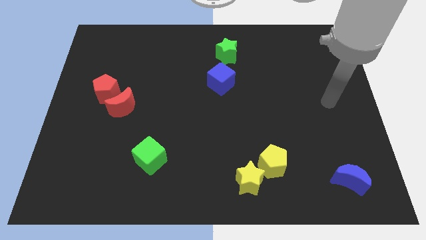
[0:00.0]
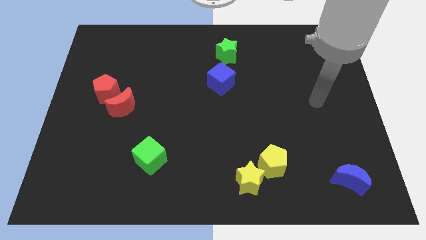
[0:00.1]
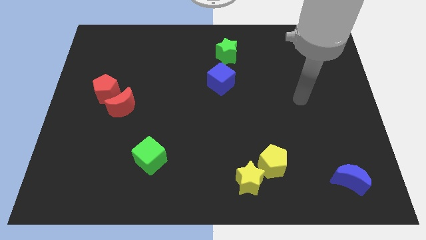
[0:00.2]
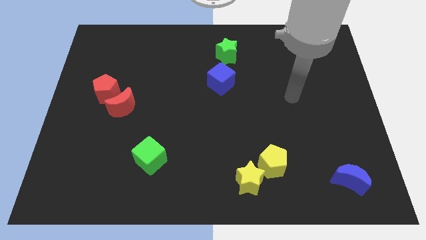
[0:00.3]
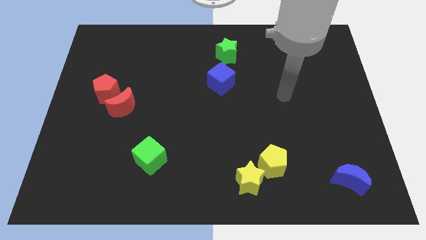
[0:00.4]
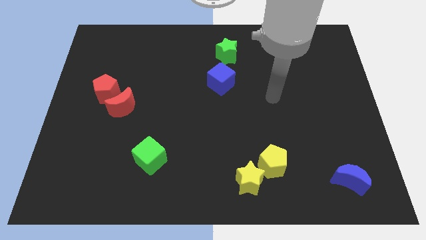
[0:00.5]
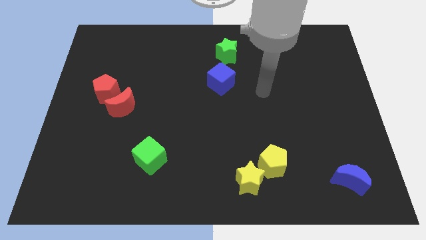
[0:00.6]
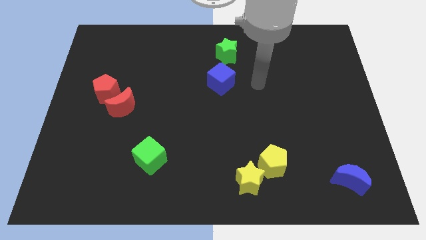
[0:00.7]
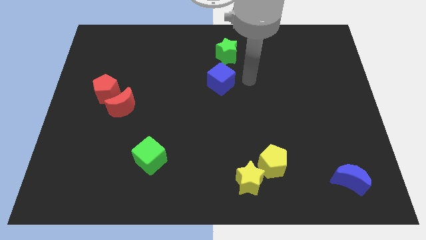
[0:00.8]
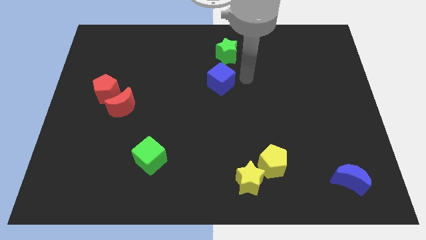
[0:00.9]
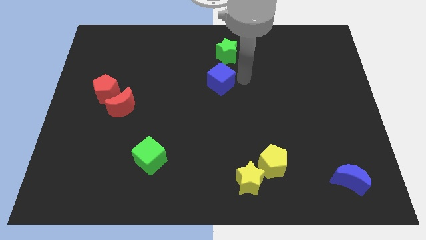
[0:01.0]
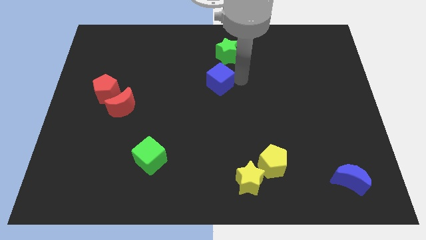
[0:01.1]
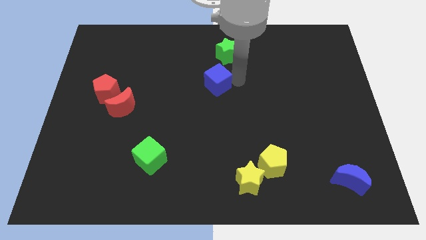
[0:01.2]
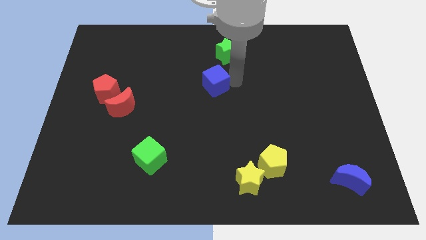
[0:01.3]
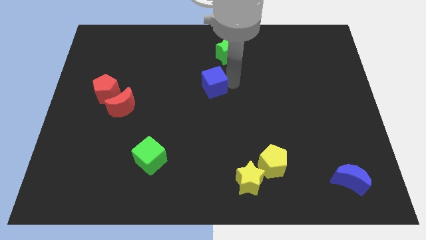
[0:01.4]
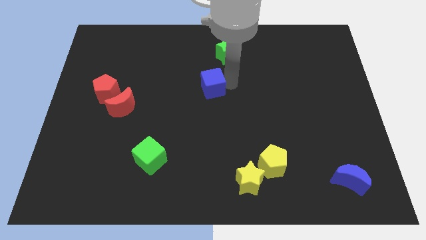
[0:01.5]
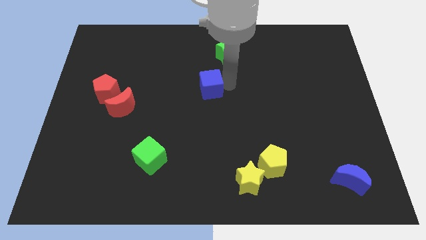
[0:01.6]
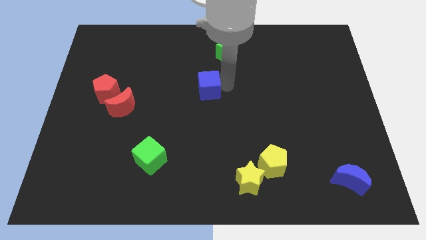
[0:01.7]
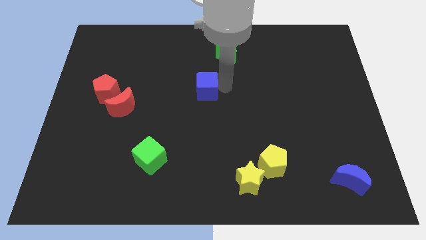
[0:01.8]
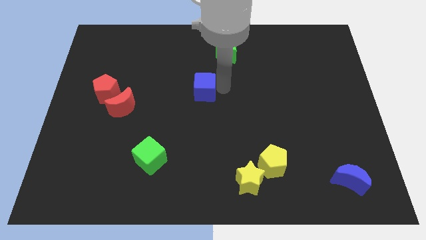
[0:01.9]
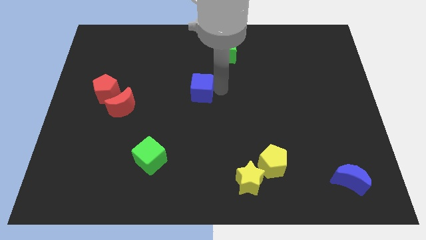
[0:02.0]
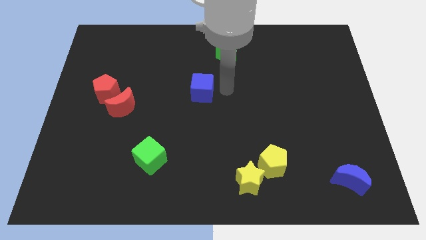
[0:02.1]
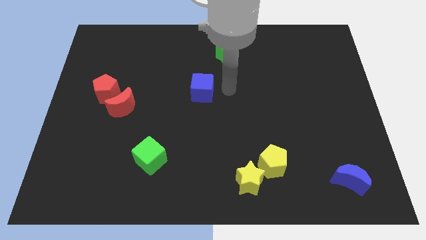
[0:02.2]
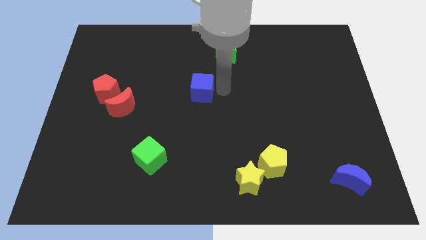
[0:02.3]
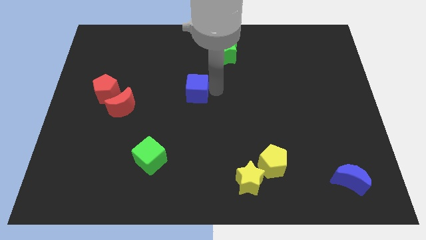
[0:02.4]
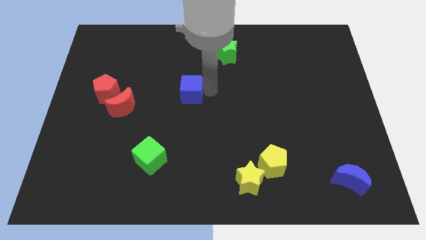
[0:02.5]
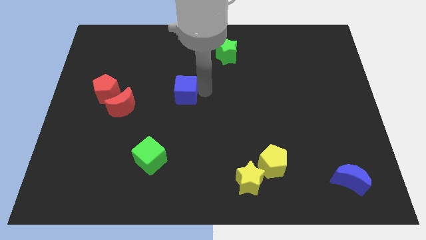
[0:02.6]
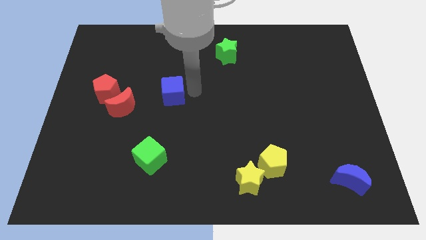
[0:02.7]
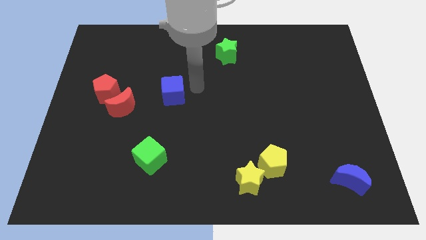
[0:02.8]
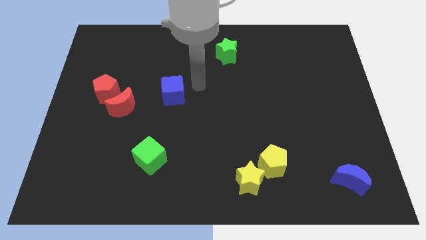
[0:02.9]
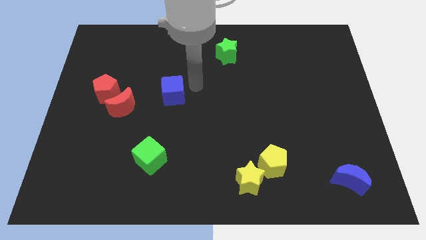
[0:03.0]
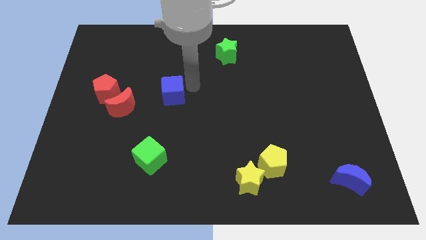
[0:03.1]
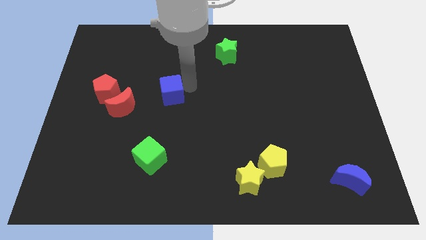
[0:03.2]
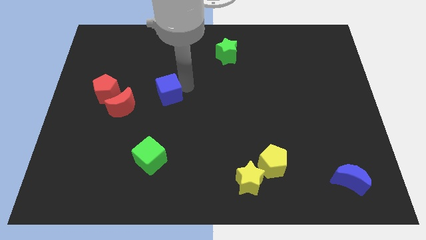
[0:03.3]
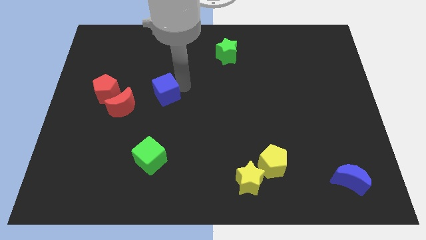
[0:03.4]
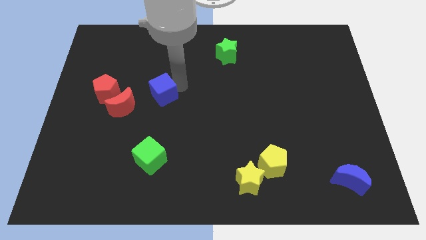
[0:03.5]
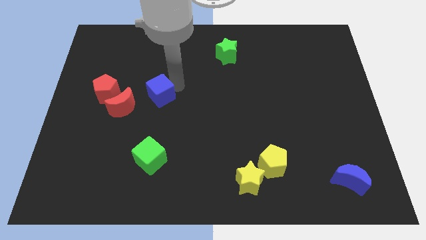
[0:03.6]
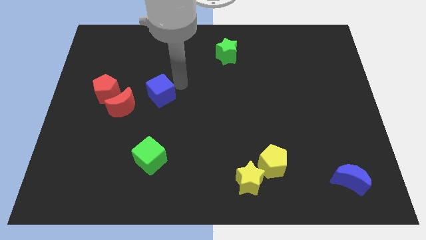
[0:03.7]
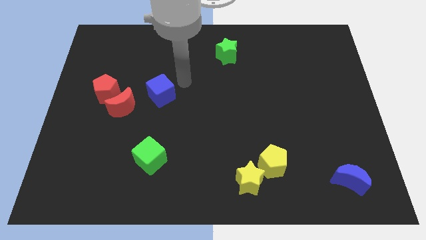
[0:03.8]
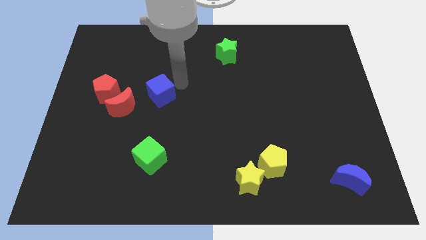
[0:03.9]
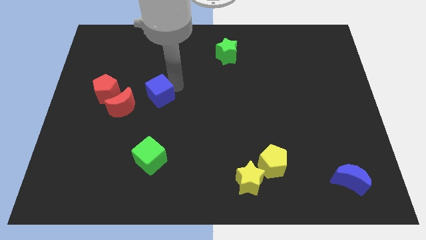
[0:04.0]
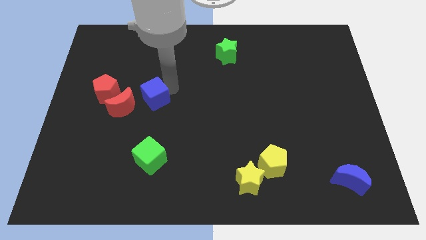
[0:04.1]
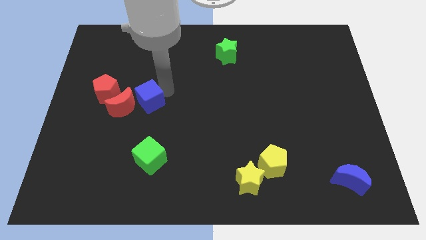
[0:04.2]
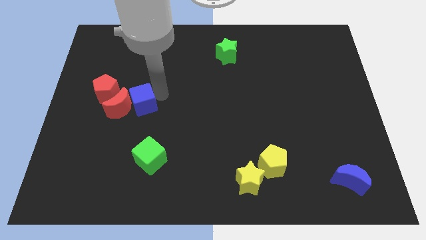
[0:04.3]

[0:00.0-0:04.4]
move the blue cube towards the red moon

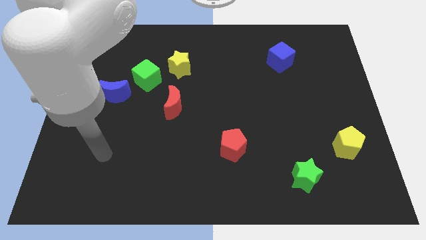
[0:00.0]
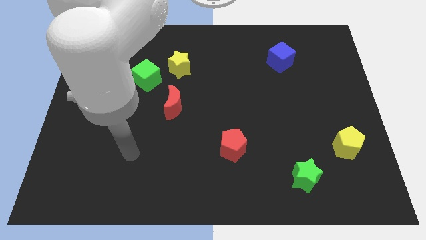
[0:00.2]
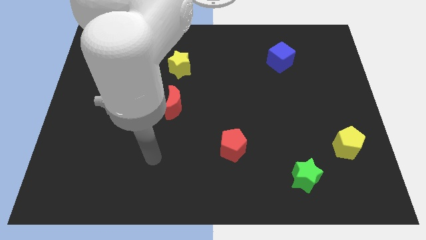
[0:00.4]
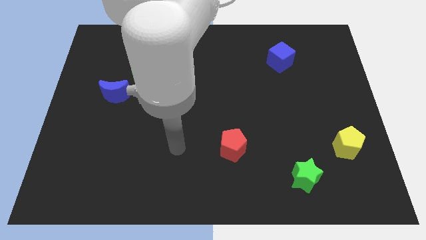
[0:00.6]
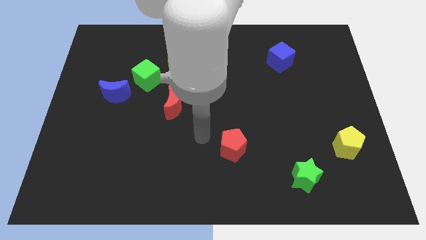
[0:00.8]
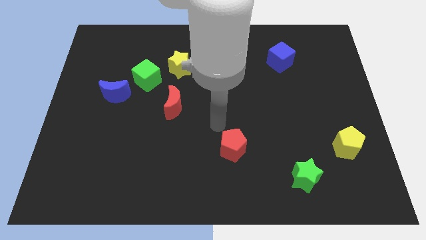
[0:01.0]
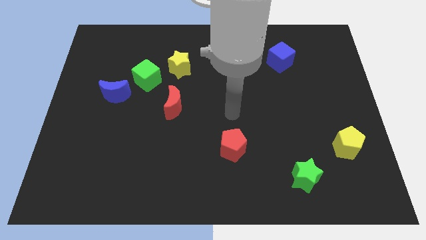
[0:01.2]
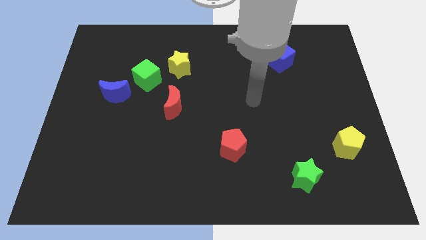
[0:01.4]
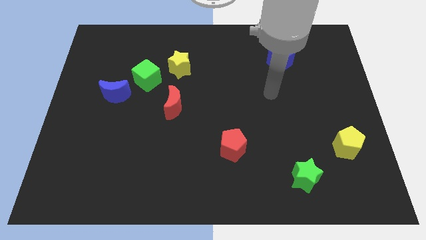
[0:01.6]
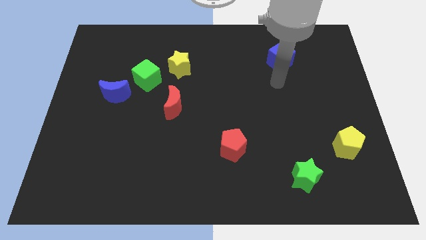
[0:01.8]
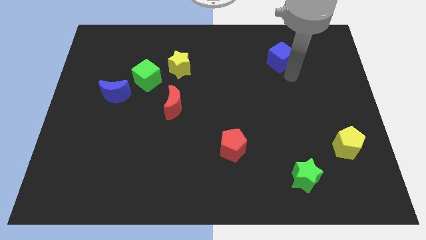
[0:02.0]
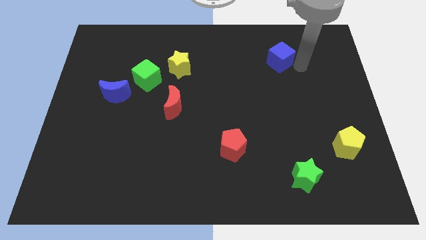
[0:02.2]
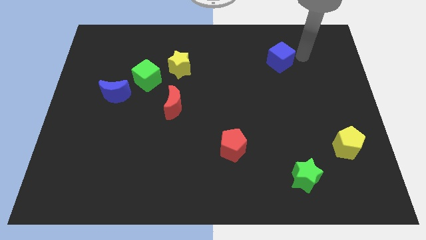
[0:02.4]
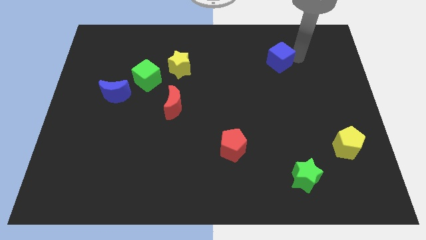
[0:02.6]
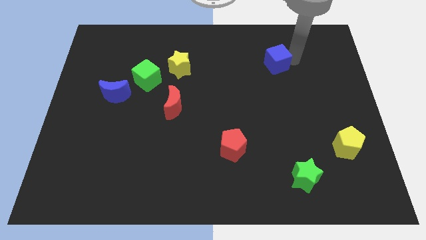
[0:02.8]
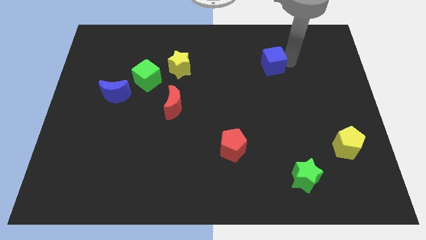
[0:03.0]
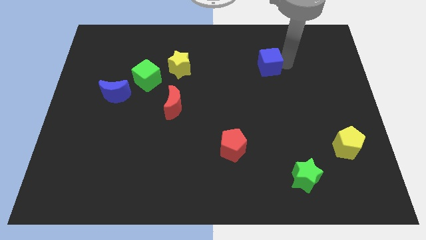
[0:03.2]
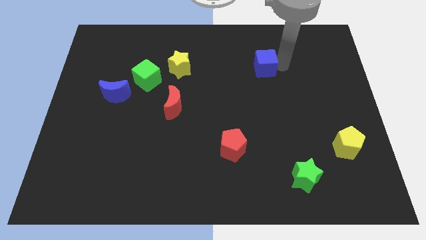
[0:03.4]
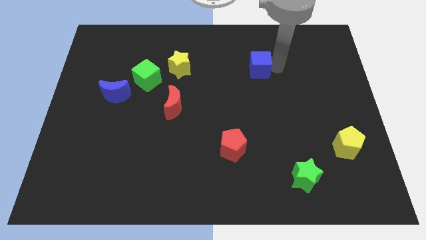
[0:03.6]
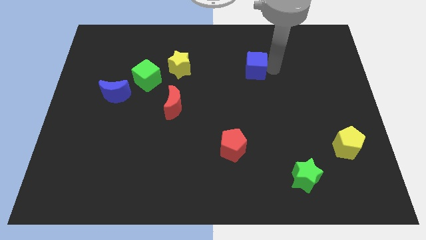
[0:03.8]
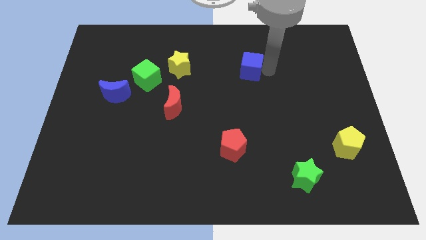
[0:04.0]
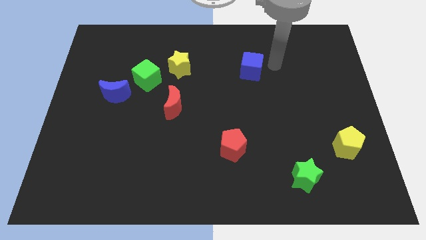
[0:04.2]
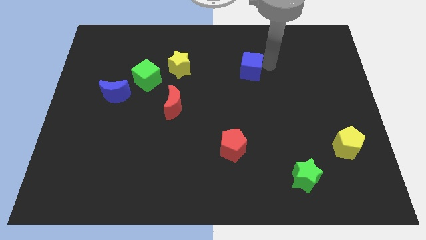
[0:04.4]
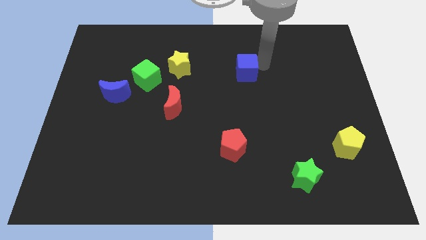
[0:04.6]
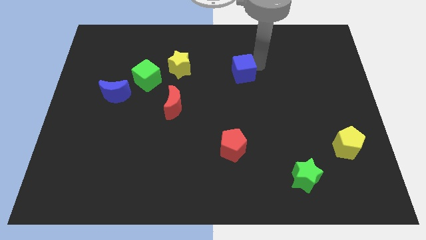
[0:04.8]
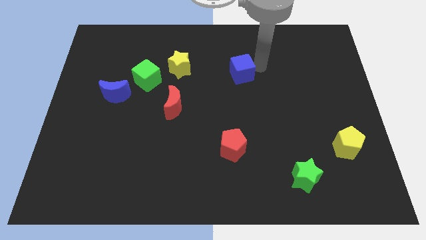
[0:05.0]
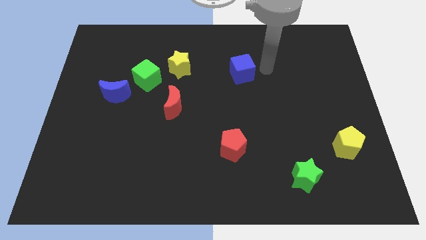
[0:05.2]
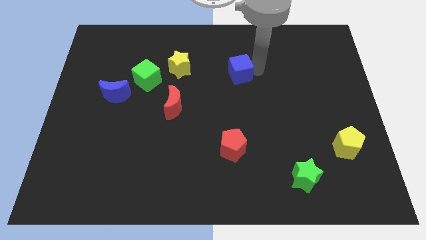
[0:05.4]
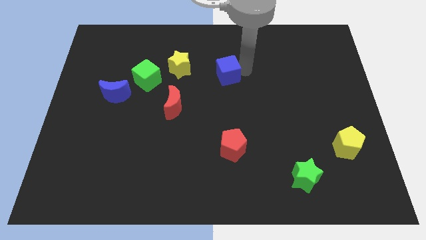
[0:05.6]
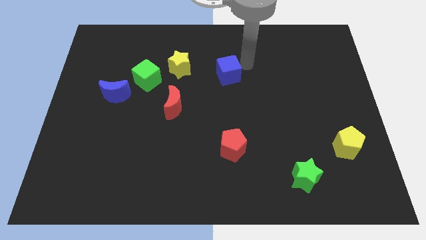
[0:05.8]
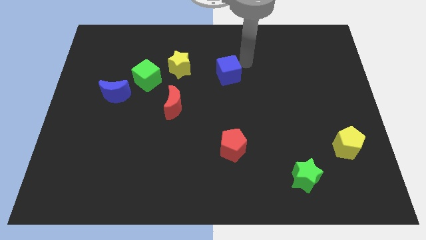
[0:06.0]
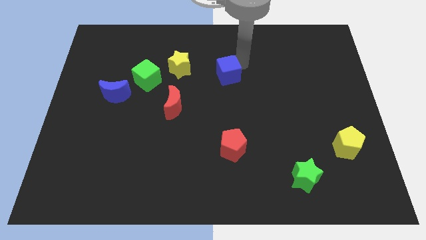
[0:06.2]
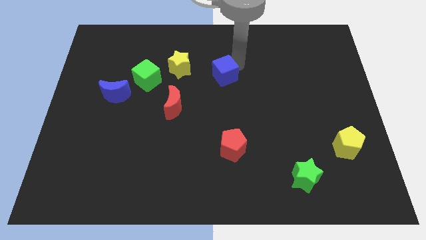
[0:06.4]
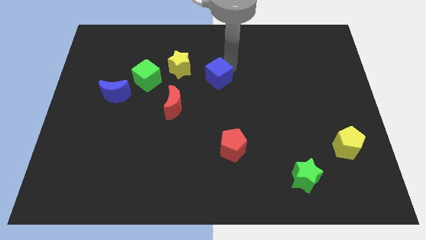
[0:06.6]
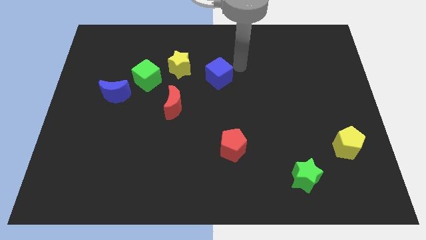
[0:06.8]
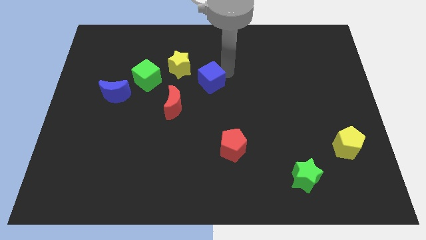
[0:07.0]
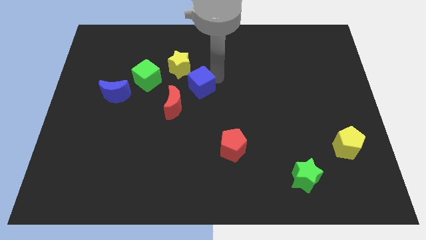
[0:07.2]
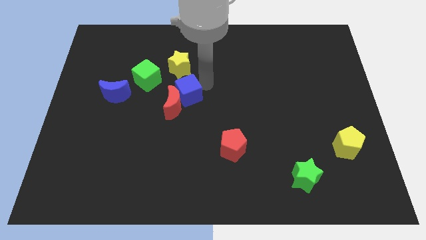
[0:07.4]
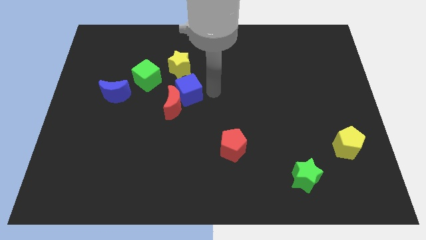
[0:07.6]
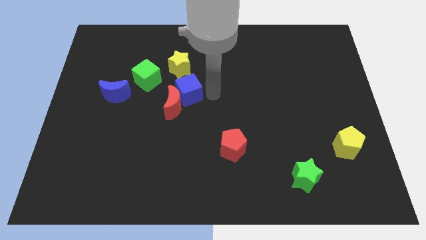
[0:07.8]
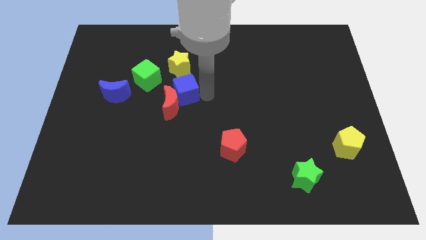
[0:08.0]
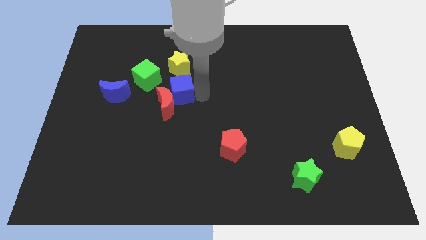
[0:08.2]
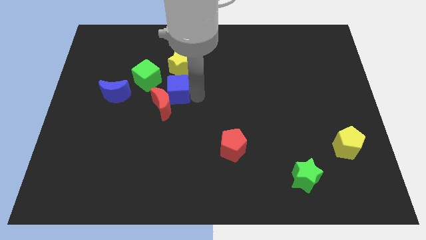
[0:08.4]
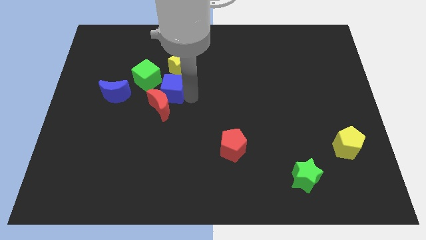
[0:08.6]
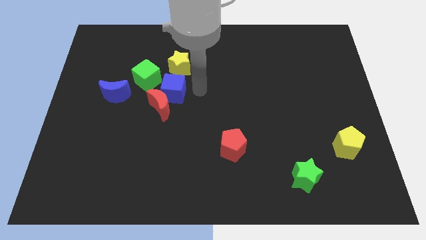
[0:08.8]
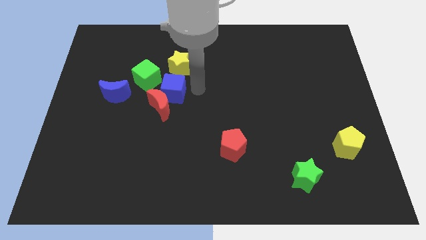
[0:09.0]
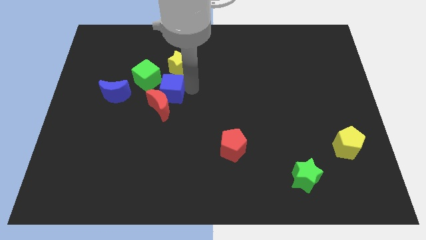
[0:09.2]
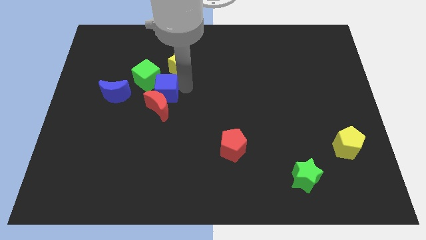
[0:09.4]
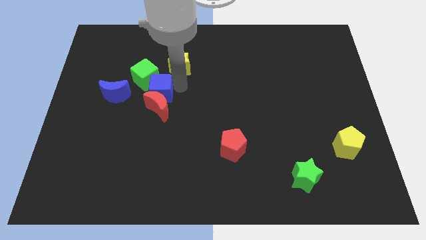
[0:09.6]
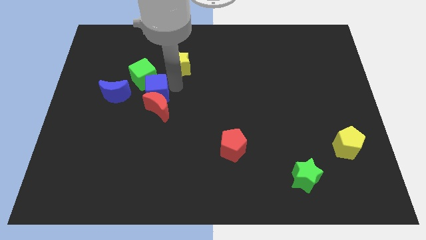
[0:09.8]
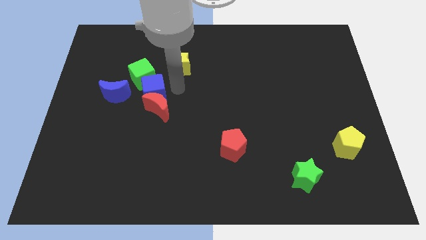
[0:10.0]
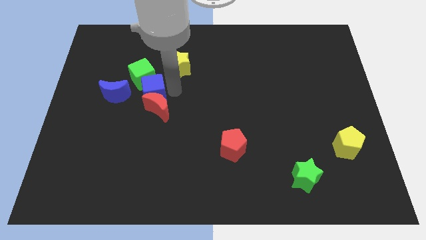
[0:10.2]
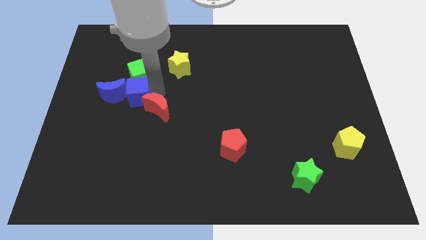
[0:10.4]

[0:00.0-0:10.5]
slide the blue cube to the blue moon
